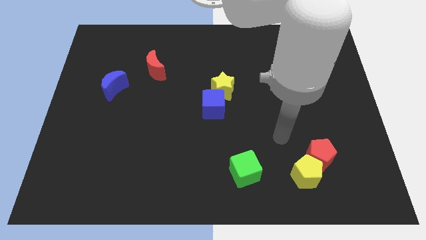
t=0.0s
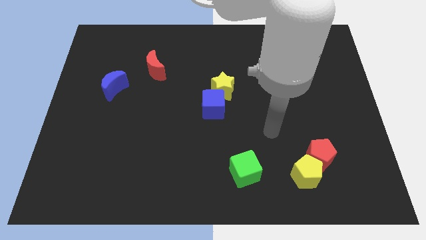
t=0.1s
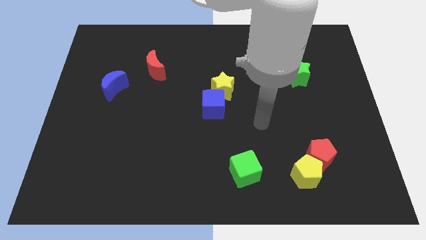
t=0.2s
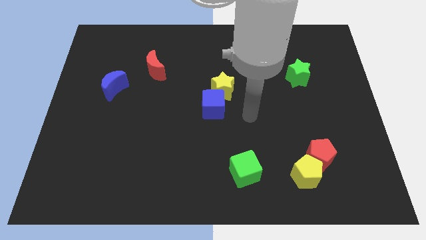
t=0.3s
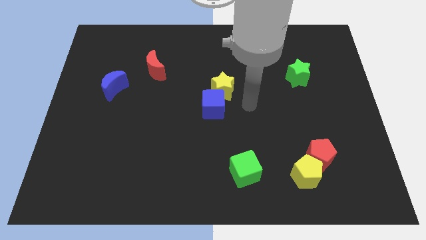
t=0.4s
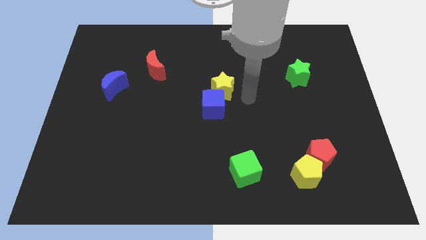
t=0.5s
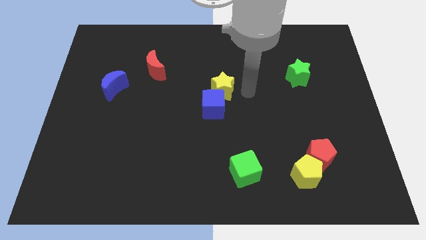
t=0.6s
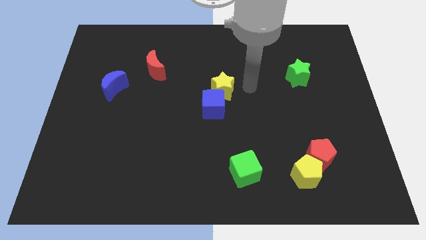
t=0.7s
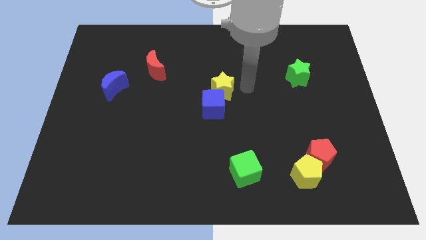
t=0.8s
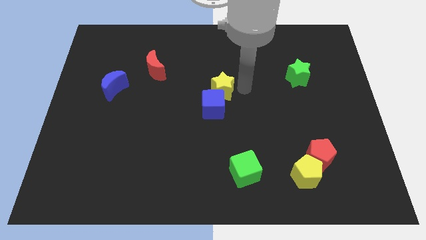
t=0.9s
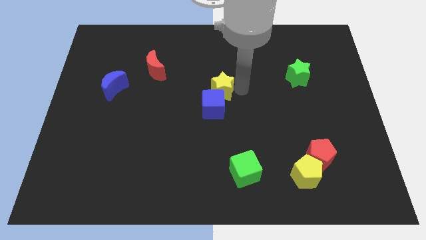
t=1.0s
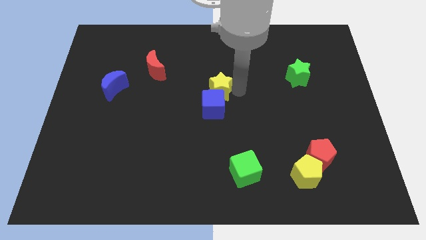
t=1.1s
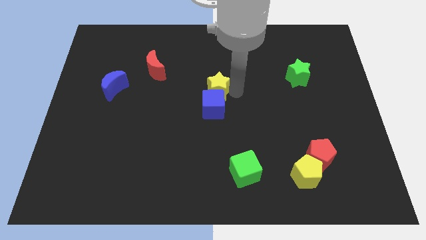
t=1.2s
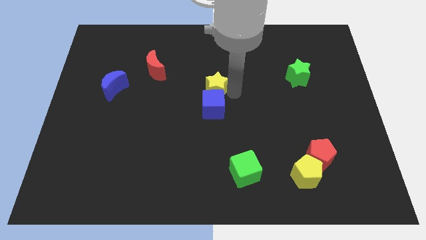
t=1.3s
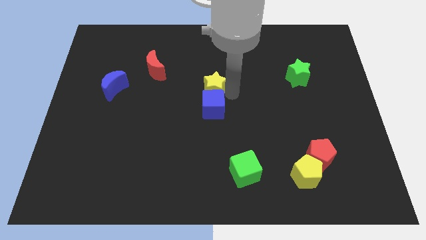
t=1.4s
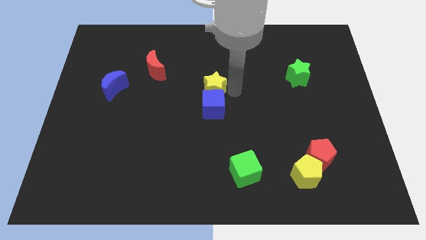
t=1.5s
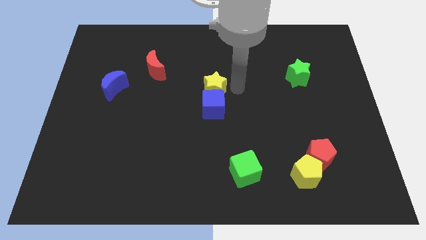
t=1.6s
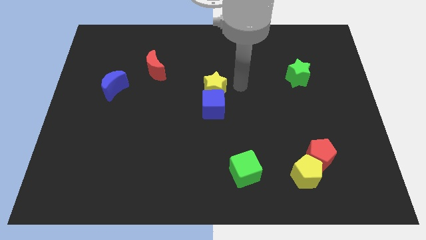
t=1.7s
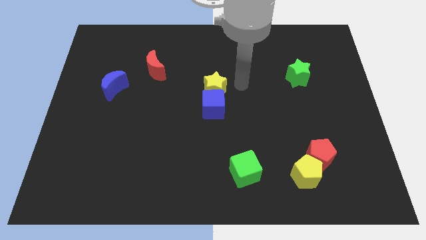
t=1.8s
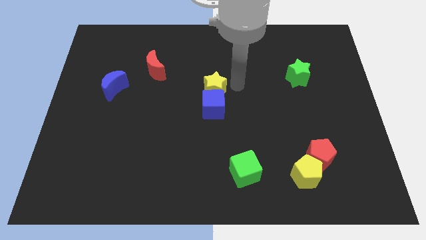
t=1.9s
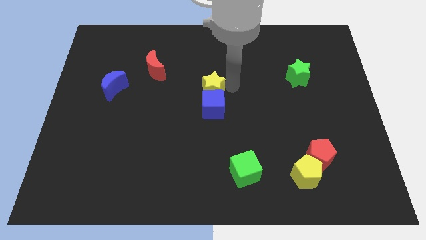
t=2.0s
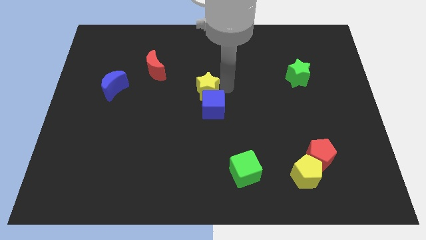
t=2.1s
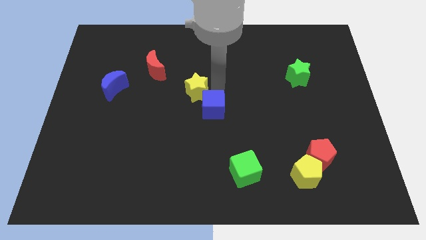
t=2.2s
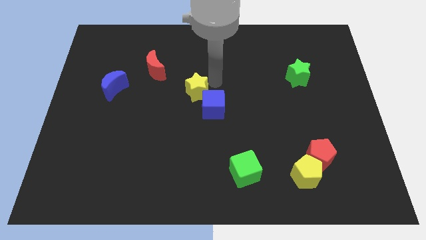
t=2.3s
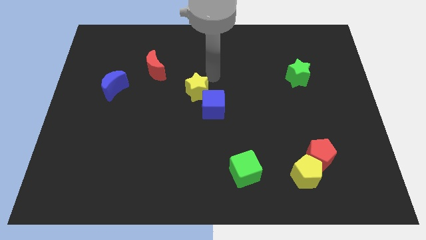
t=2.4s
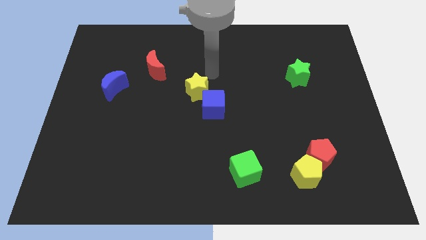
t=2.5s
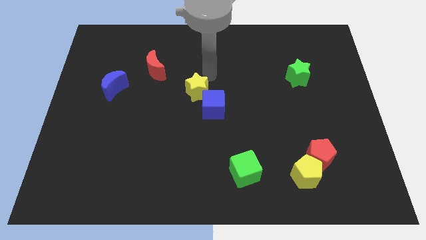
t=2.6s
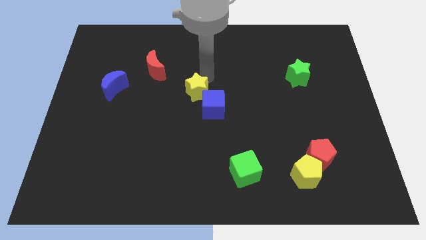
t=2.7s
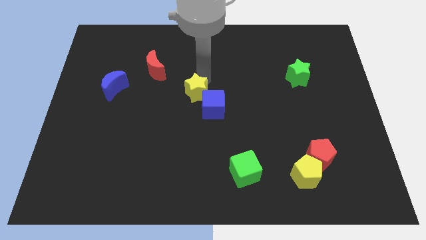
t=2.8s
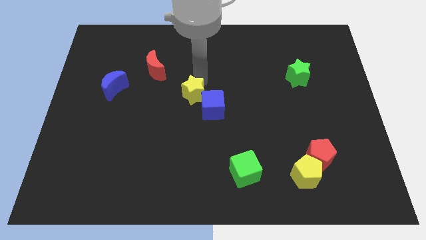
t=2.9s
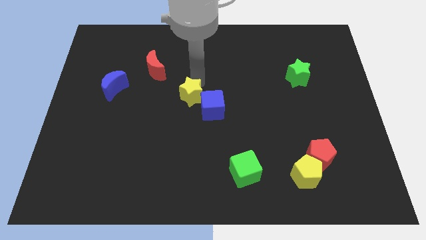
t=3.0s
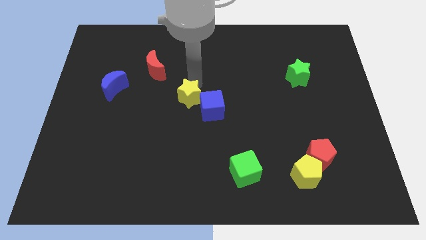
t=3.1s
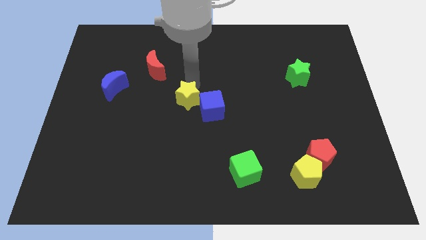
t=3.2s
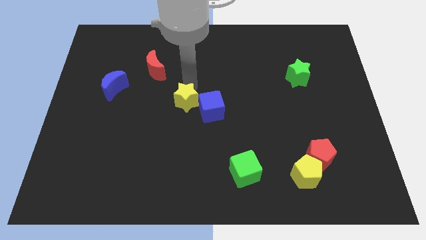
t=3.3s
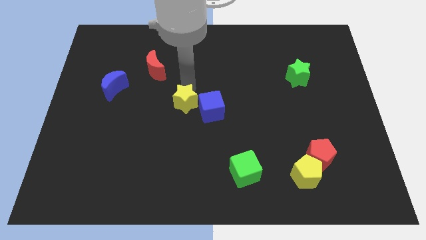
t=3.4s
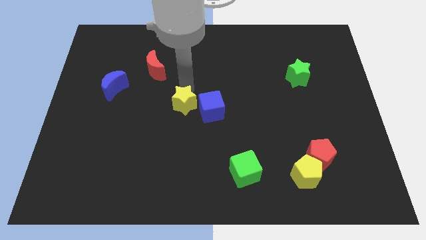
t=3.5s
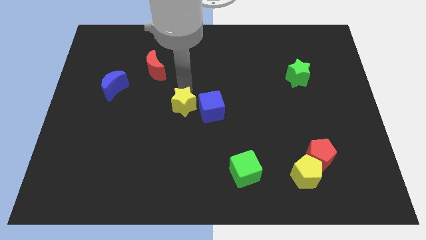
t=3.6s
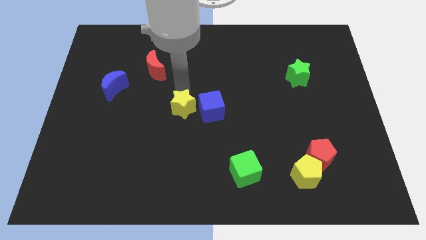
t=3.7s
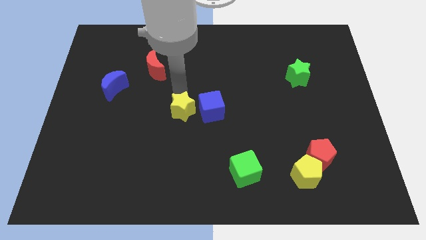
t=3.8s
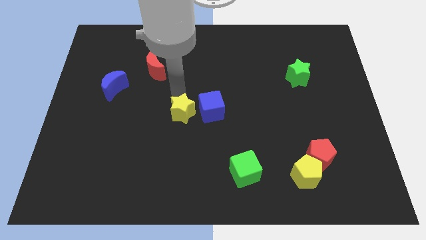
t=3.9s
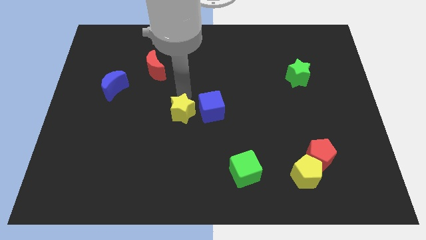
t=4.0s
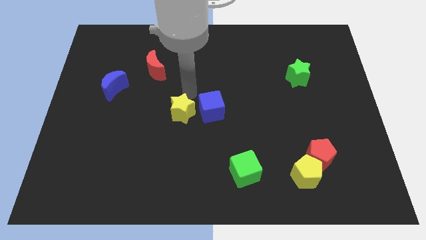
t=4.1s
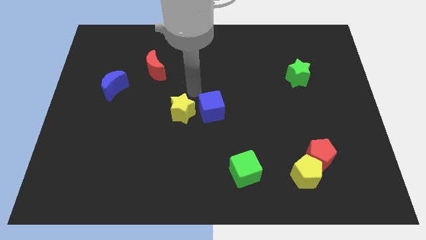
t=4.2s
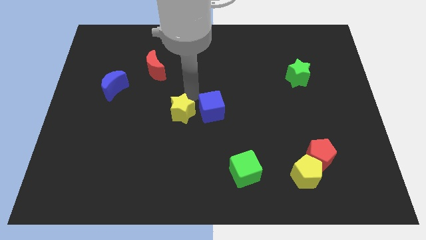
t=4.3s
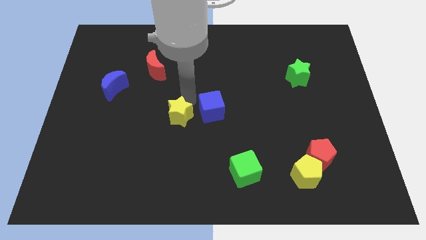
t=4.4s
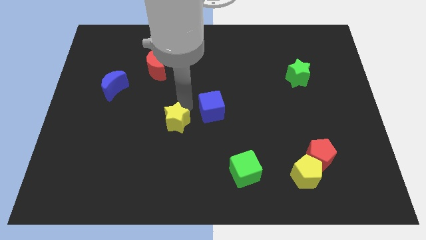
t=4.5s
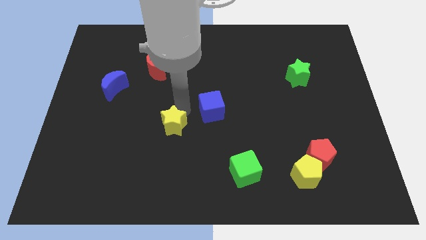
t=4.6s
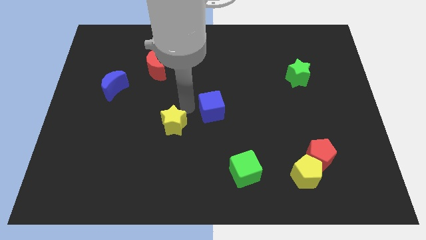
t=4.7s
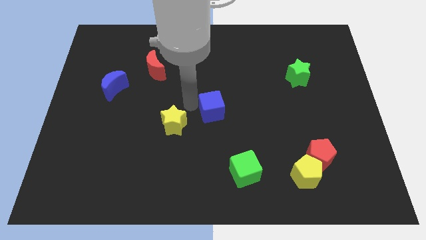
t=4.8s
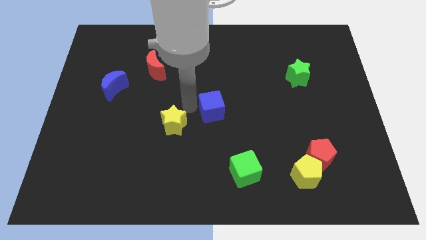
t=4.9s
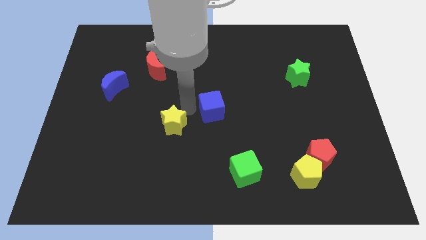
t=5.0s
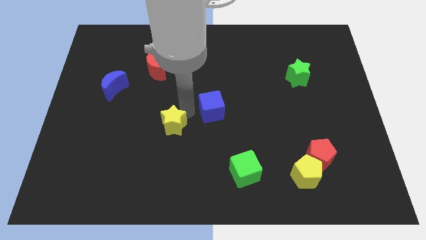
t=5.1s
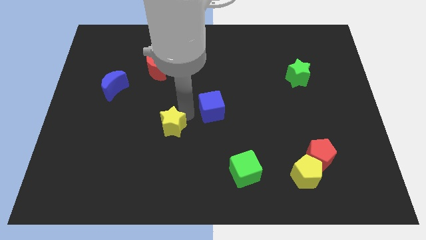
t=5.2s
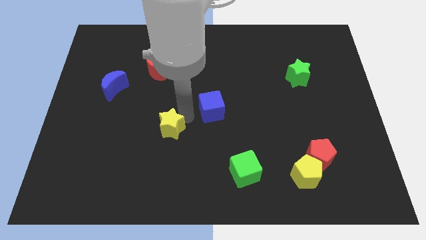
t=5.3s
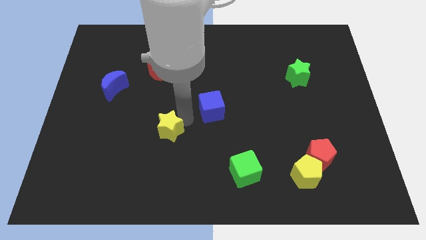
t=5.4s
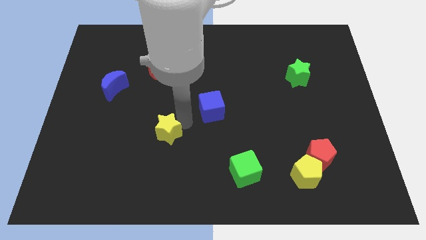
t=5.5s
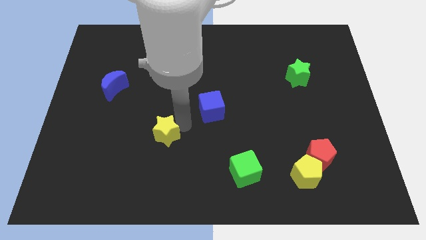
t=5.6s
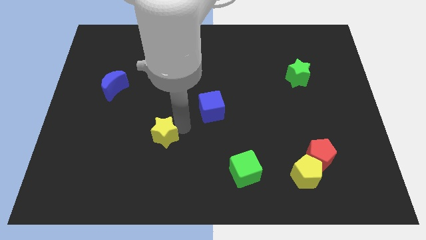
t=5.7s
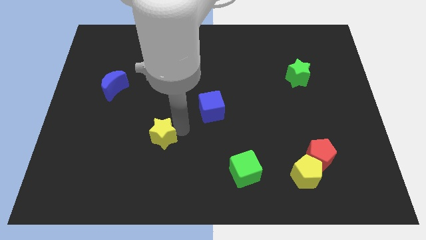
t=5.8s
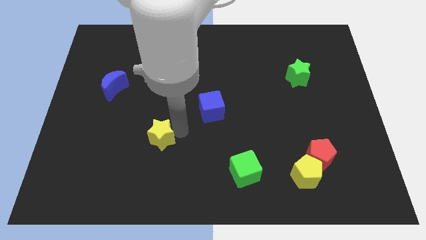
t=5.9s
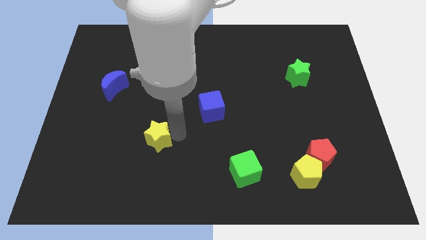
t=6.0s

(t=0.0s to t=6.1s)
push the yellow star diagonally down and to the left

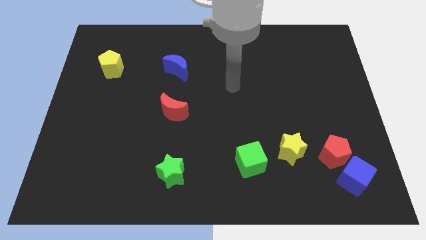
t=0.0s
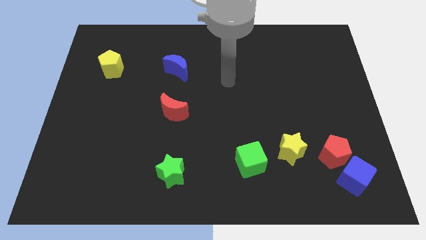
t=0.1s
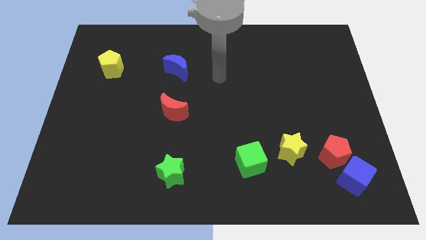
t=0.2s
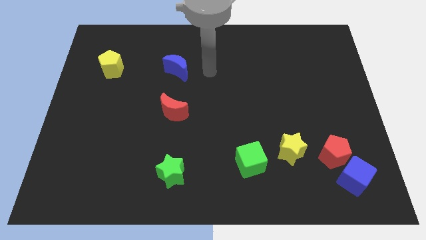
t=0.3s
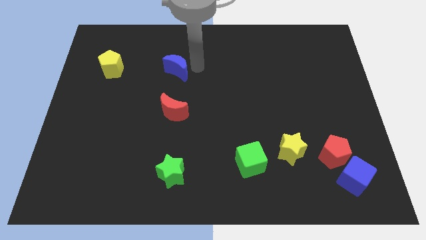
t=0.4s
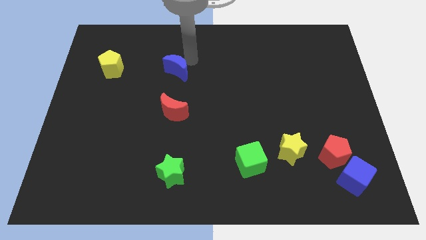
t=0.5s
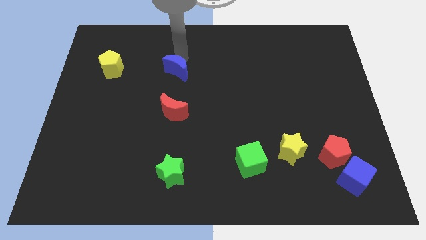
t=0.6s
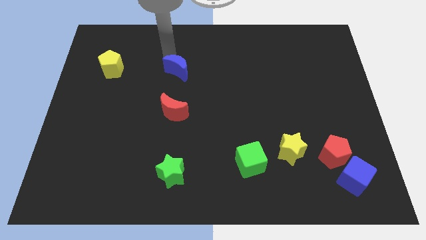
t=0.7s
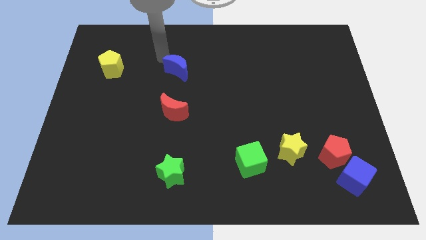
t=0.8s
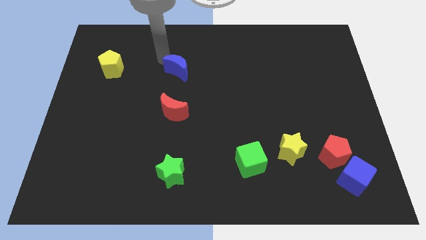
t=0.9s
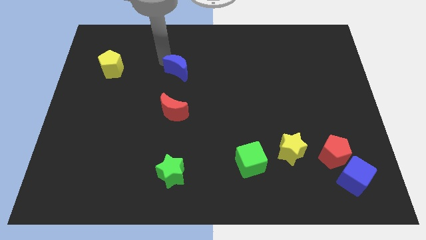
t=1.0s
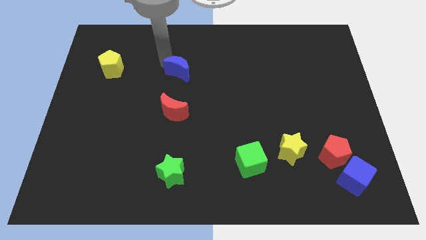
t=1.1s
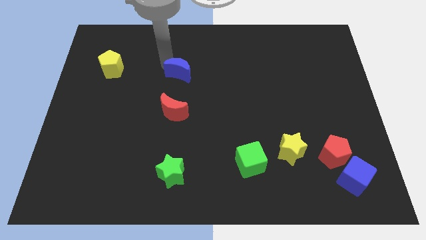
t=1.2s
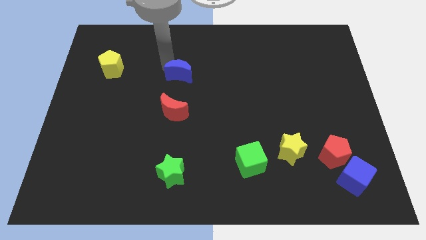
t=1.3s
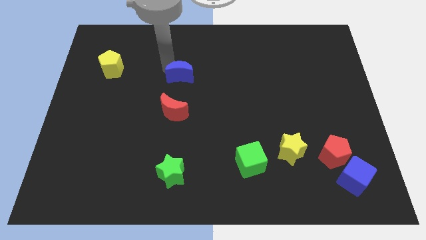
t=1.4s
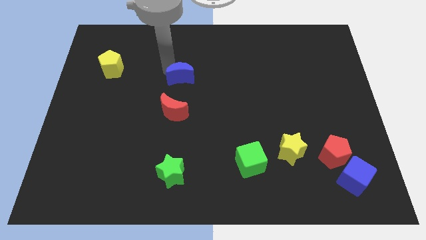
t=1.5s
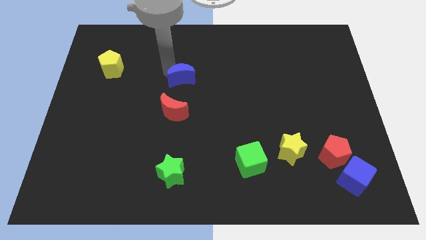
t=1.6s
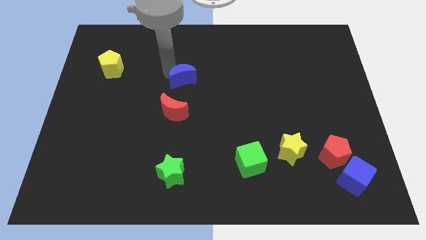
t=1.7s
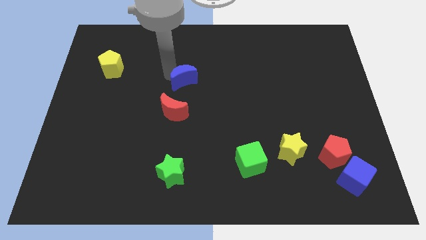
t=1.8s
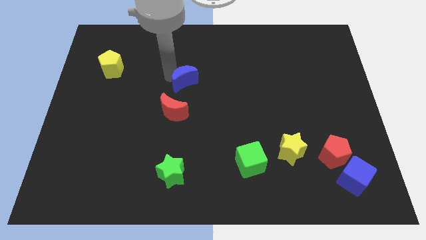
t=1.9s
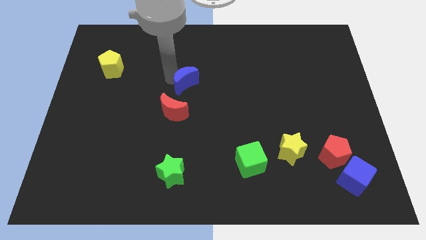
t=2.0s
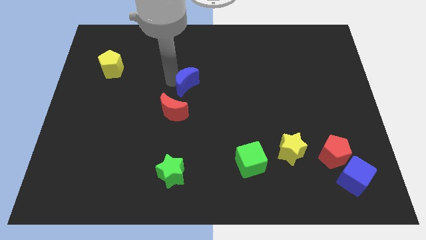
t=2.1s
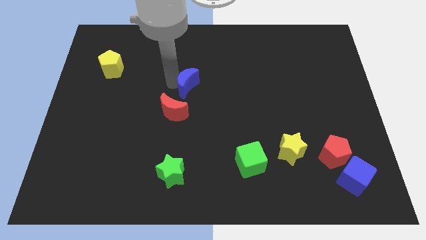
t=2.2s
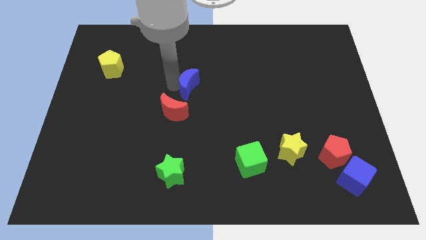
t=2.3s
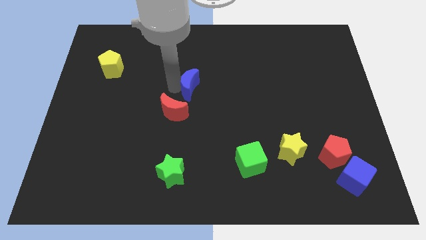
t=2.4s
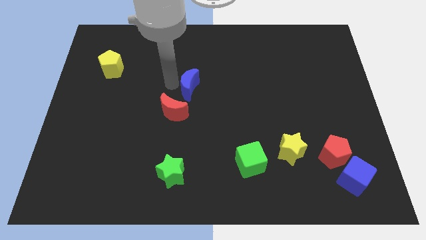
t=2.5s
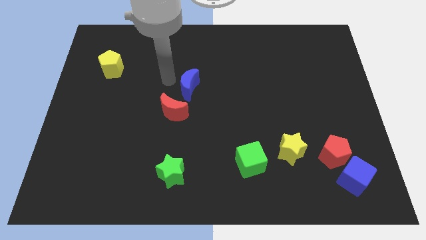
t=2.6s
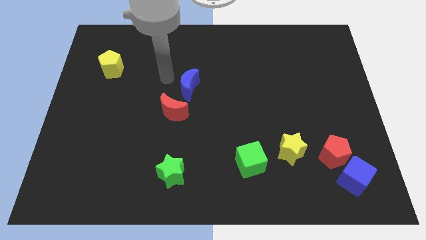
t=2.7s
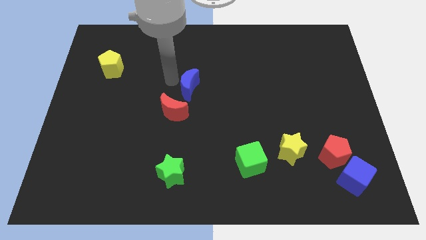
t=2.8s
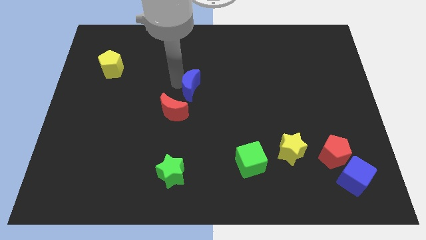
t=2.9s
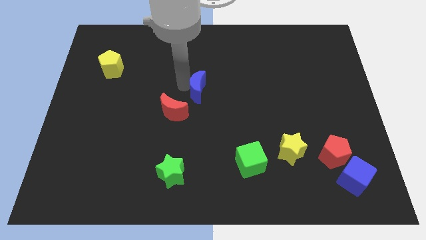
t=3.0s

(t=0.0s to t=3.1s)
slide the blue moon somewhat down and to the right diagonally
